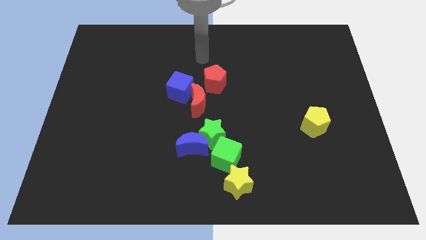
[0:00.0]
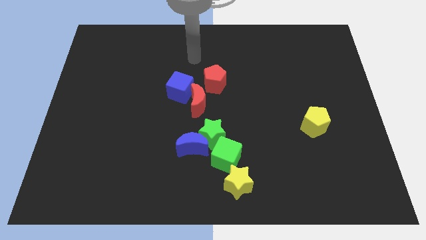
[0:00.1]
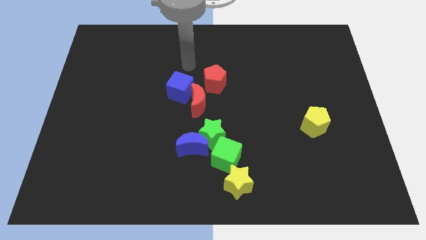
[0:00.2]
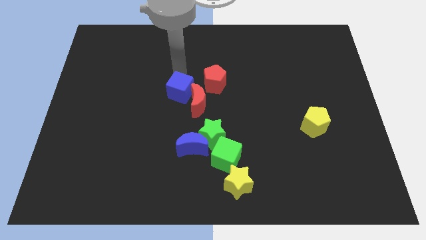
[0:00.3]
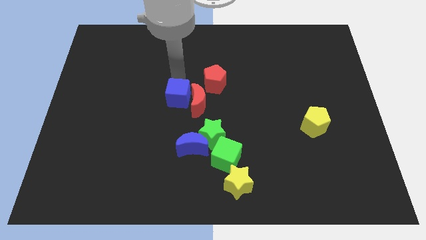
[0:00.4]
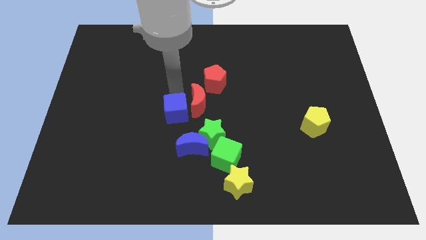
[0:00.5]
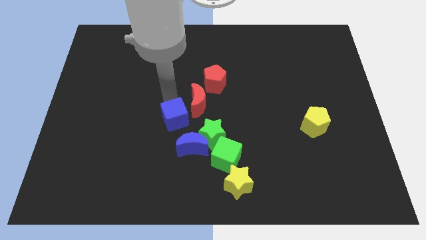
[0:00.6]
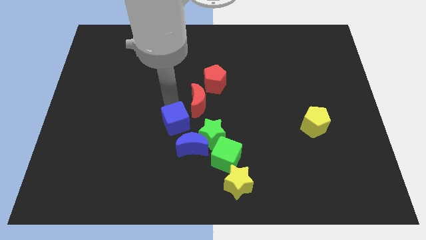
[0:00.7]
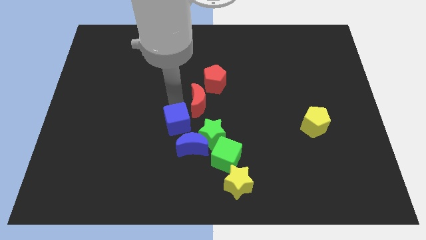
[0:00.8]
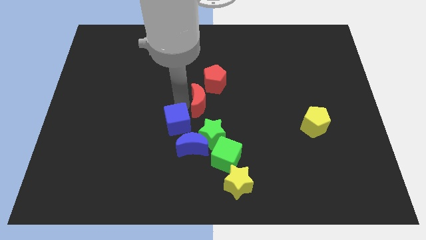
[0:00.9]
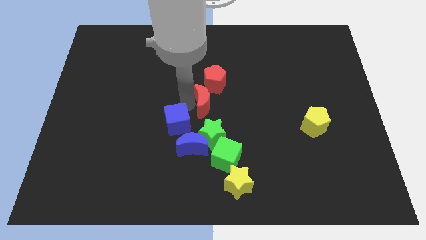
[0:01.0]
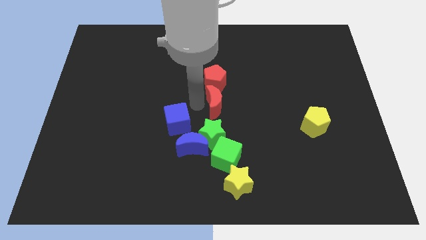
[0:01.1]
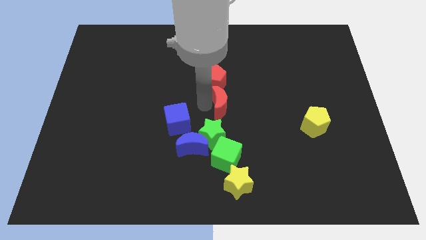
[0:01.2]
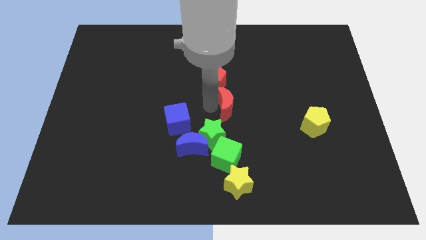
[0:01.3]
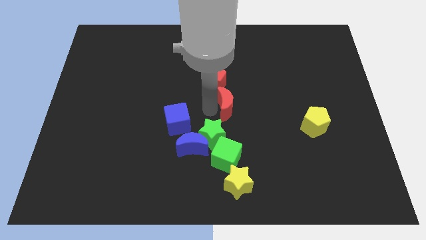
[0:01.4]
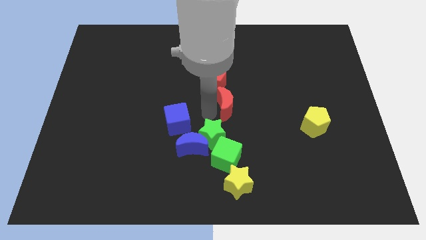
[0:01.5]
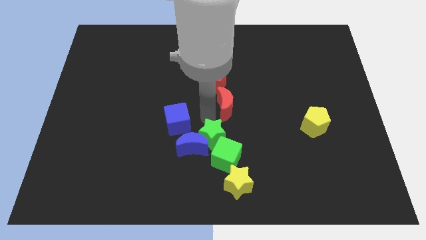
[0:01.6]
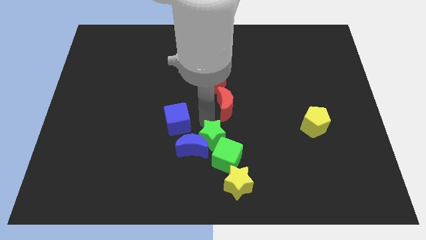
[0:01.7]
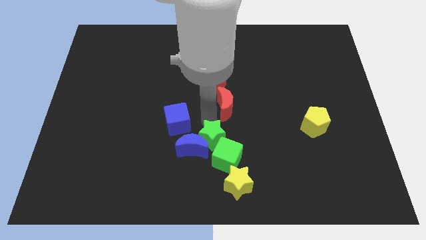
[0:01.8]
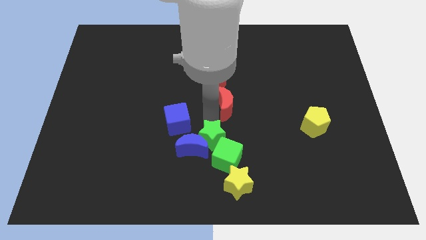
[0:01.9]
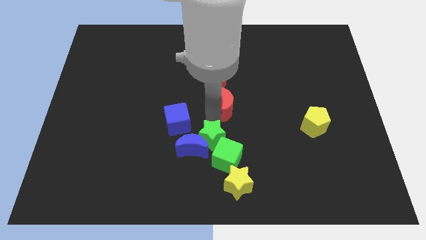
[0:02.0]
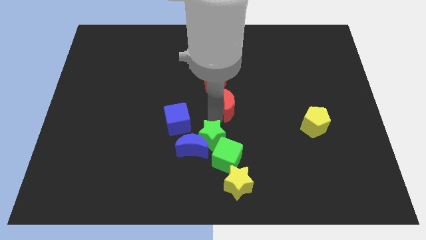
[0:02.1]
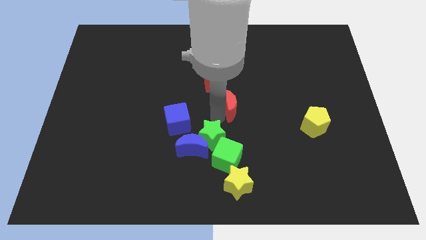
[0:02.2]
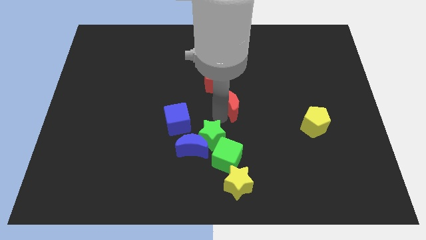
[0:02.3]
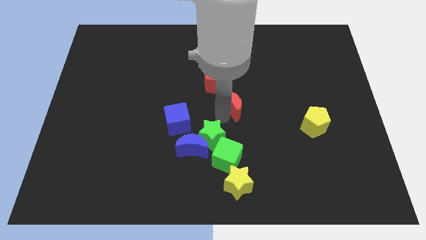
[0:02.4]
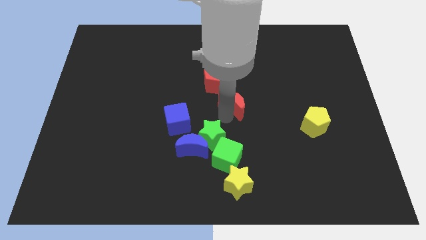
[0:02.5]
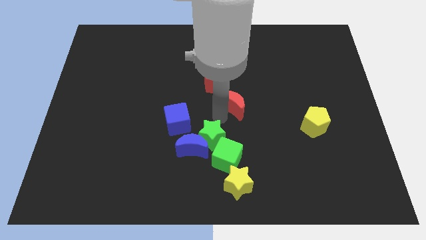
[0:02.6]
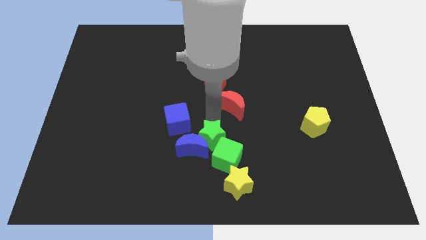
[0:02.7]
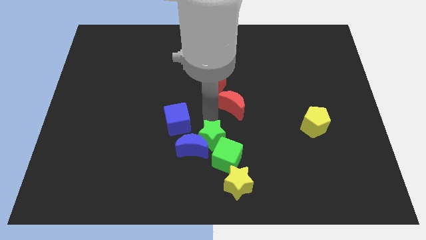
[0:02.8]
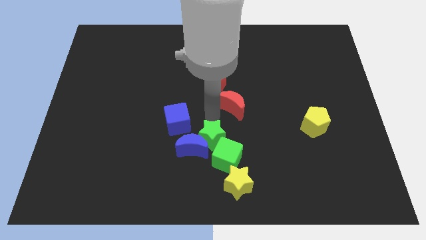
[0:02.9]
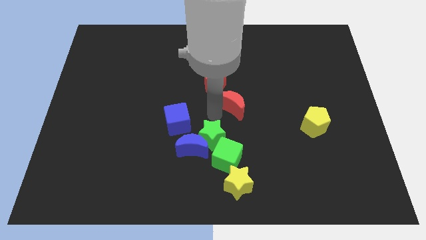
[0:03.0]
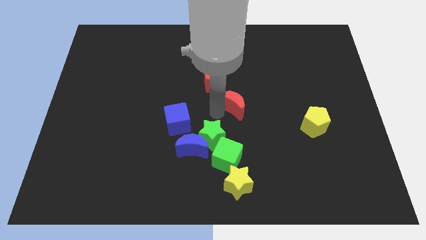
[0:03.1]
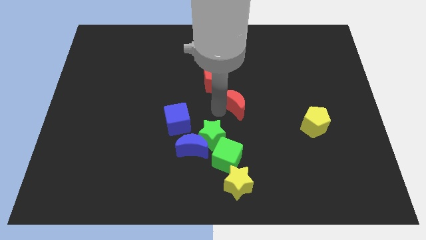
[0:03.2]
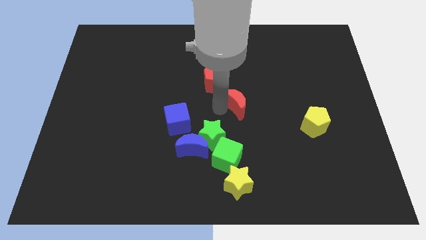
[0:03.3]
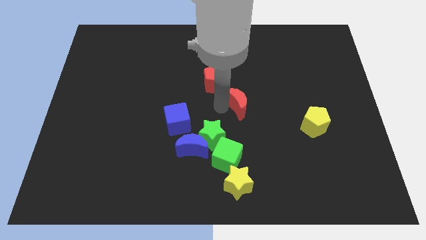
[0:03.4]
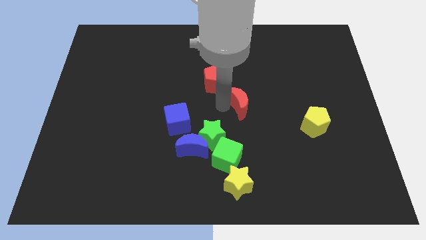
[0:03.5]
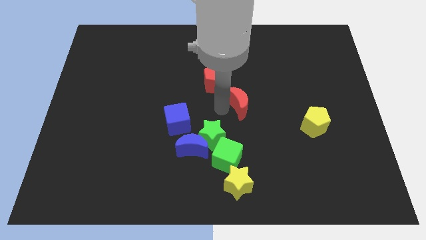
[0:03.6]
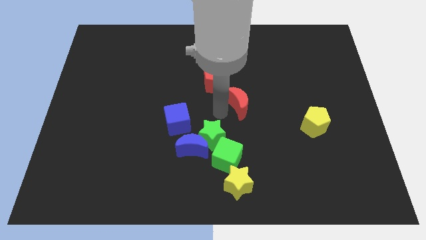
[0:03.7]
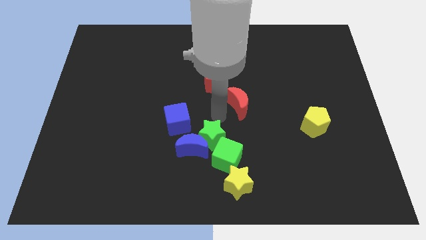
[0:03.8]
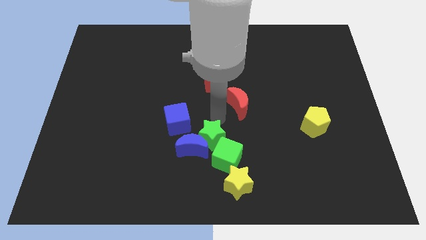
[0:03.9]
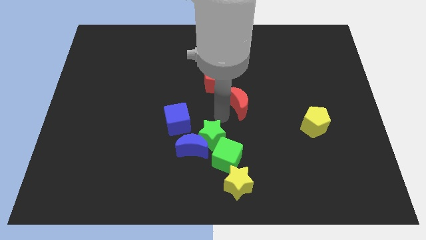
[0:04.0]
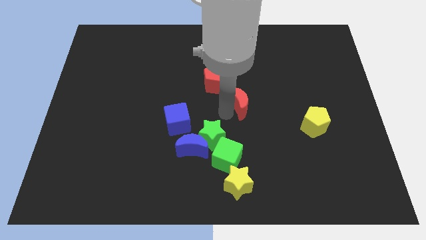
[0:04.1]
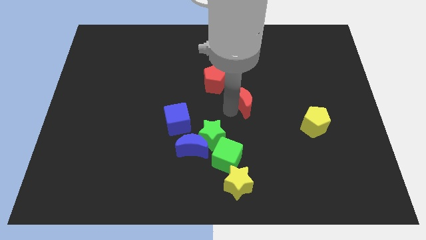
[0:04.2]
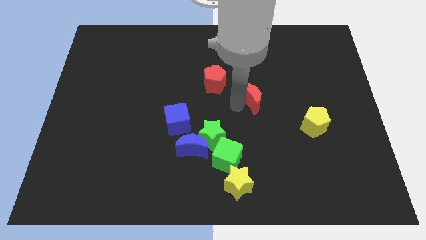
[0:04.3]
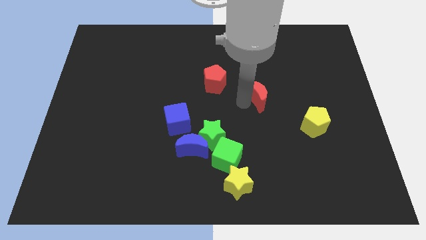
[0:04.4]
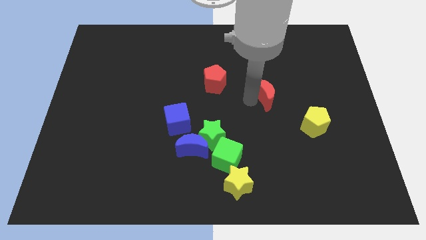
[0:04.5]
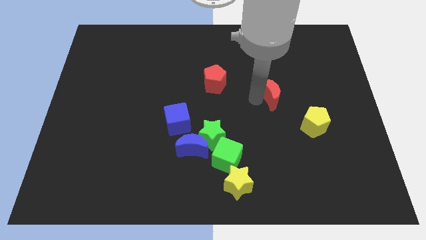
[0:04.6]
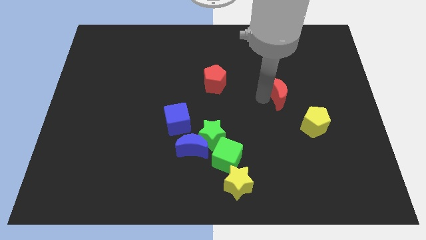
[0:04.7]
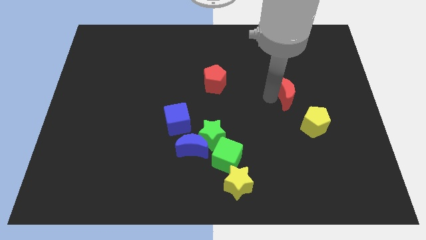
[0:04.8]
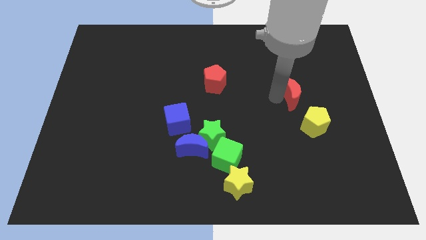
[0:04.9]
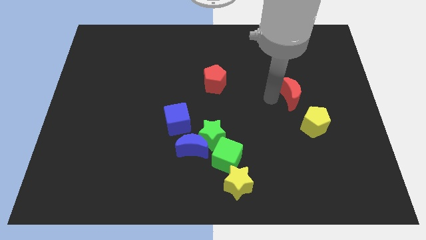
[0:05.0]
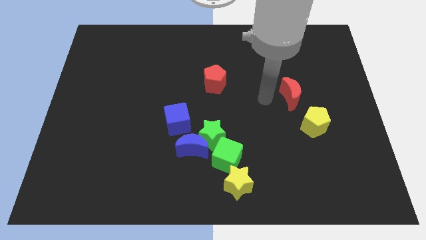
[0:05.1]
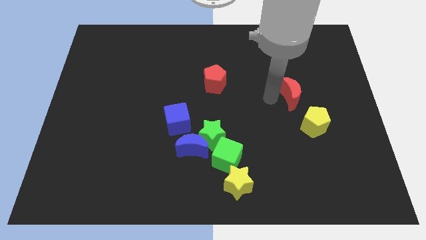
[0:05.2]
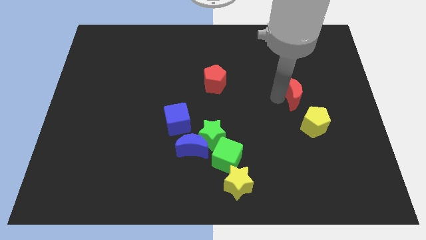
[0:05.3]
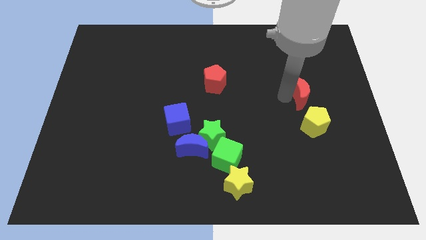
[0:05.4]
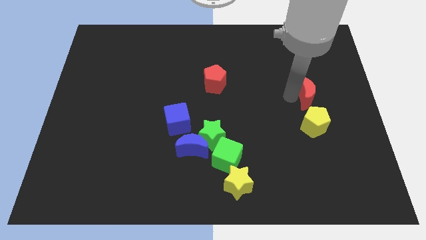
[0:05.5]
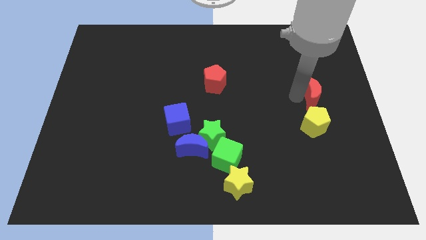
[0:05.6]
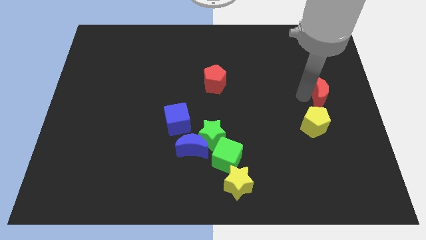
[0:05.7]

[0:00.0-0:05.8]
put the red moon to the right side

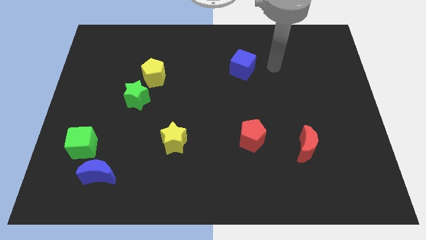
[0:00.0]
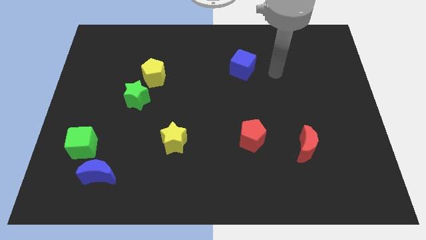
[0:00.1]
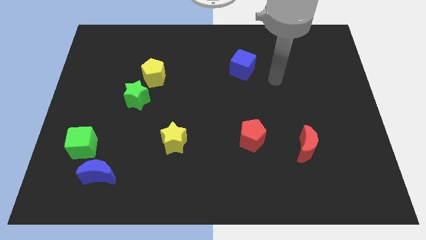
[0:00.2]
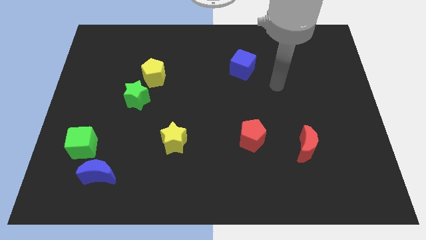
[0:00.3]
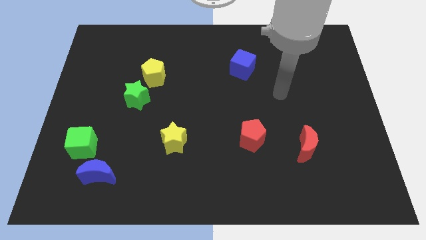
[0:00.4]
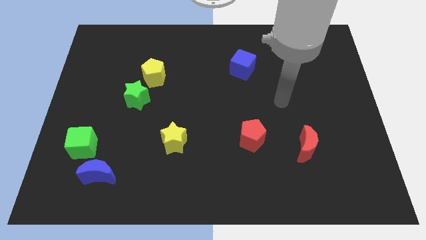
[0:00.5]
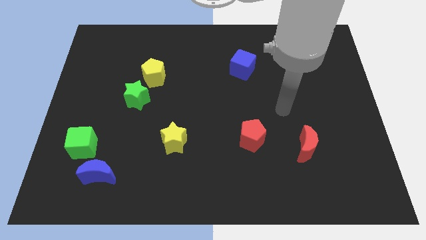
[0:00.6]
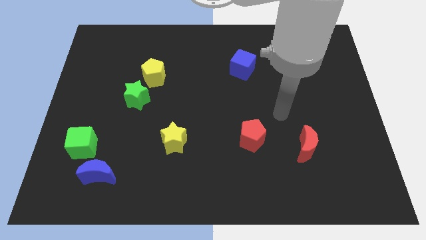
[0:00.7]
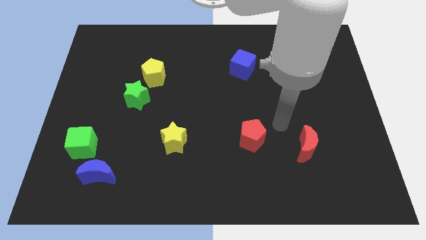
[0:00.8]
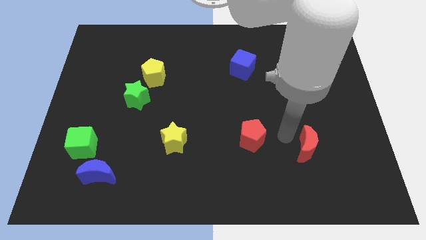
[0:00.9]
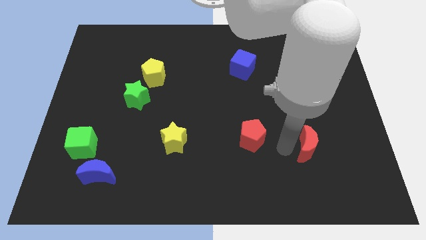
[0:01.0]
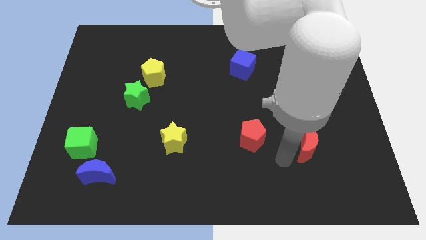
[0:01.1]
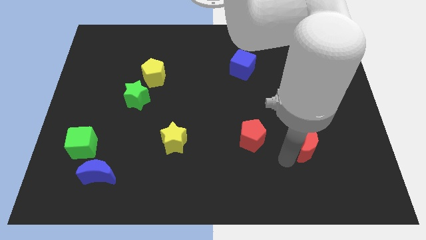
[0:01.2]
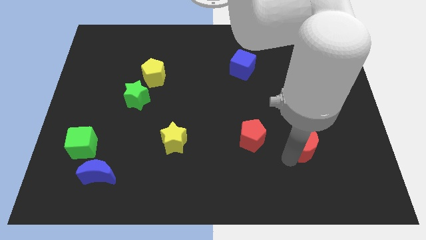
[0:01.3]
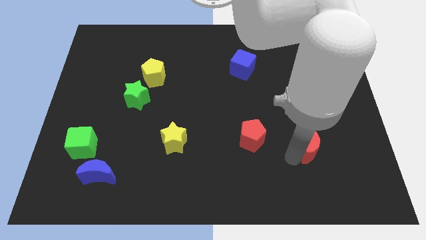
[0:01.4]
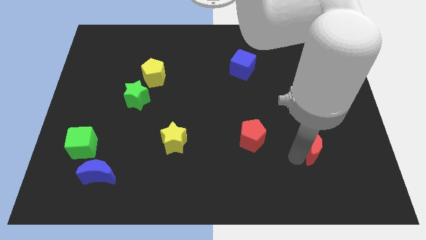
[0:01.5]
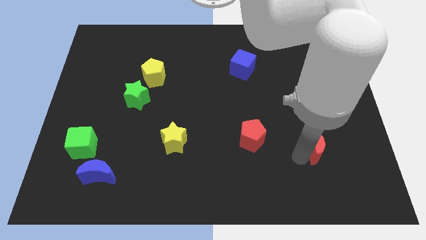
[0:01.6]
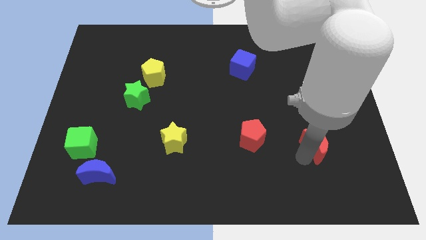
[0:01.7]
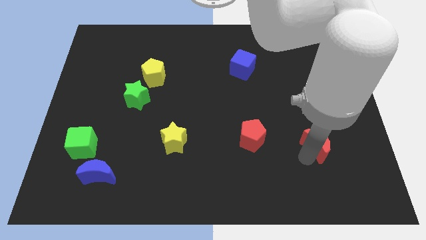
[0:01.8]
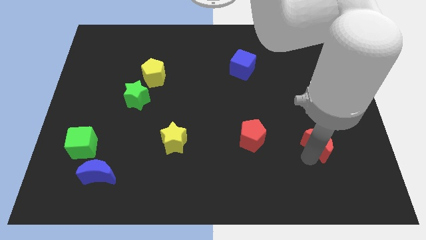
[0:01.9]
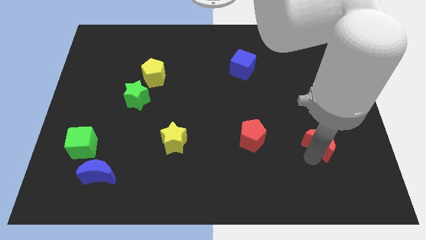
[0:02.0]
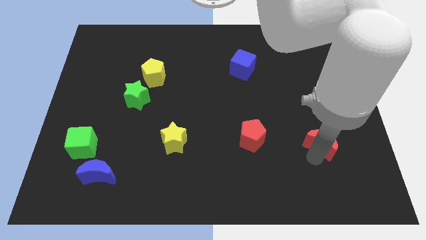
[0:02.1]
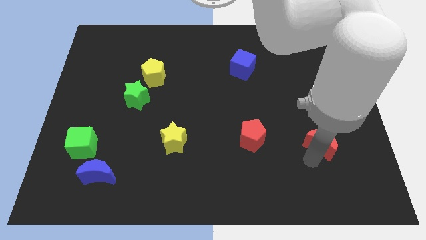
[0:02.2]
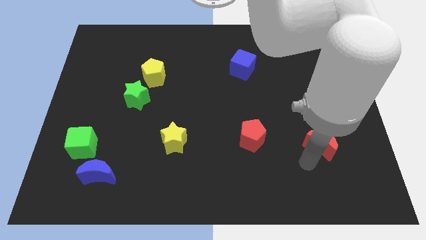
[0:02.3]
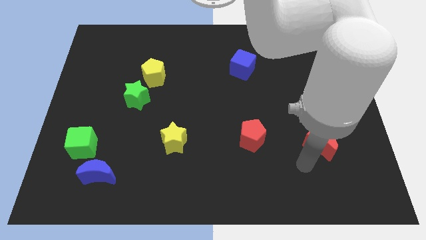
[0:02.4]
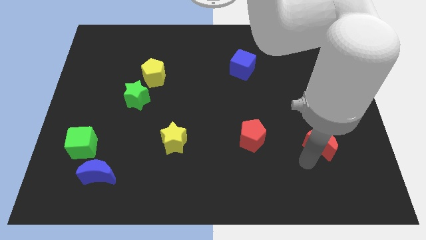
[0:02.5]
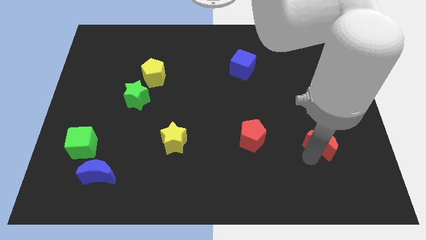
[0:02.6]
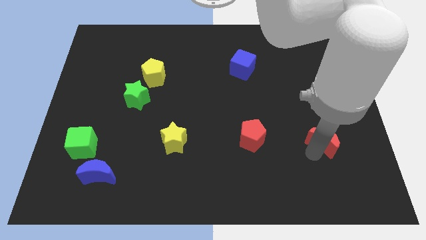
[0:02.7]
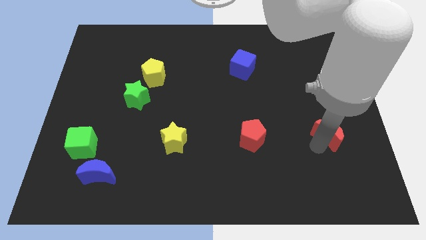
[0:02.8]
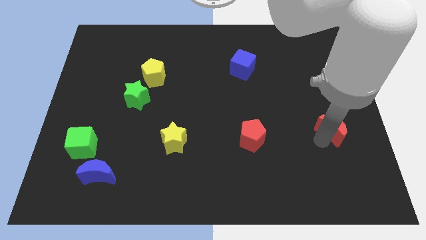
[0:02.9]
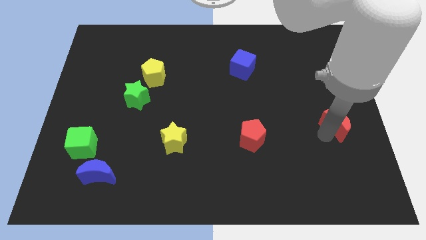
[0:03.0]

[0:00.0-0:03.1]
move the red moon to the center right
